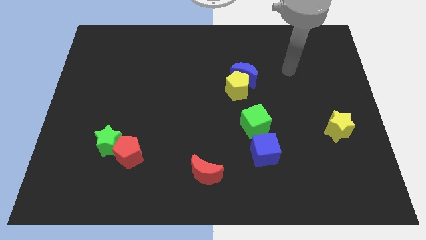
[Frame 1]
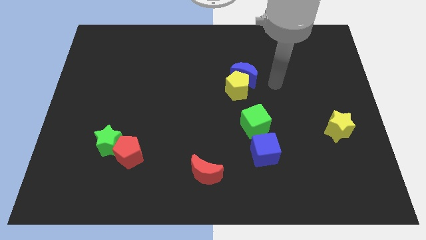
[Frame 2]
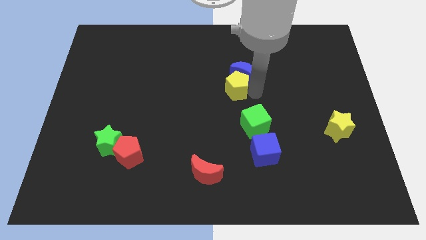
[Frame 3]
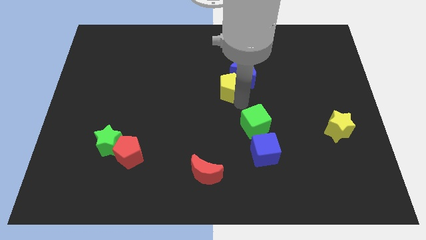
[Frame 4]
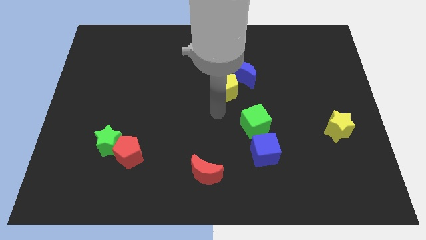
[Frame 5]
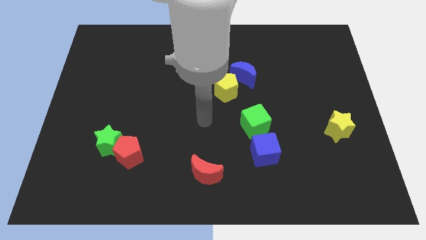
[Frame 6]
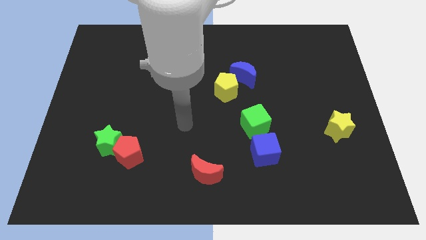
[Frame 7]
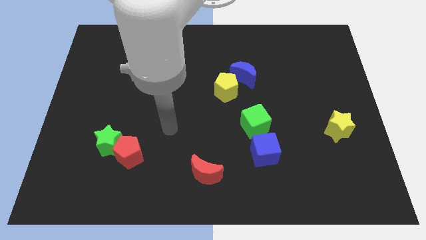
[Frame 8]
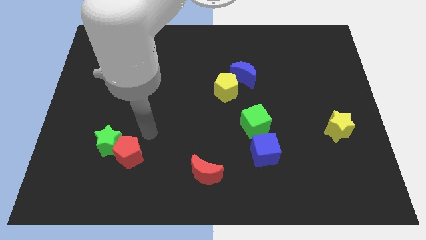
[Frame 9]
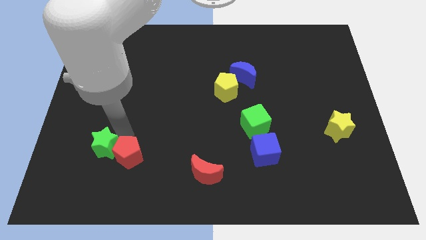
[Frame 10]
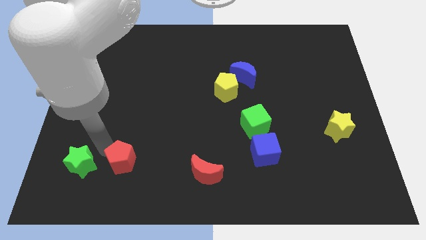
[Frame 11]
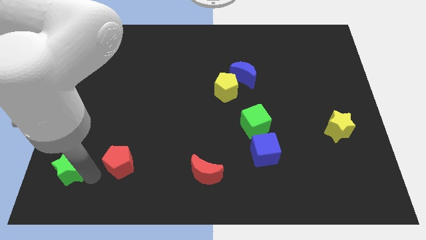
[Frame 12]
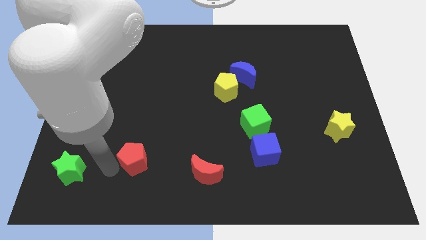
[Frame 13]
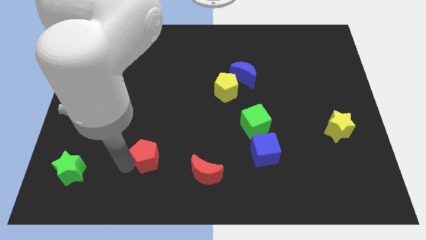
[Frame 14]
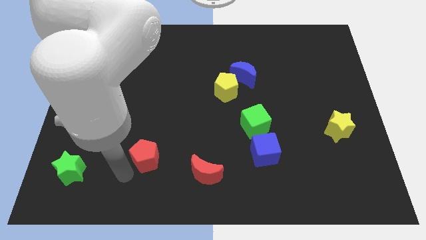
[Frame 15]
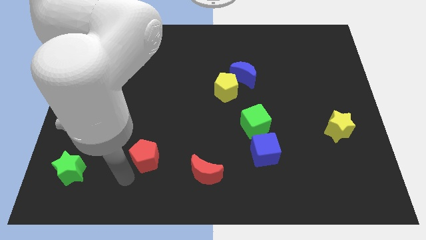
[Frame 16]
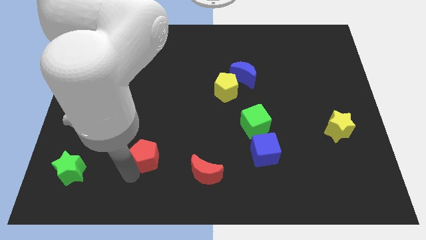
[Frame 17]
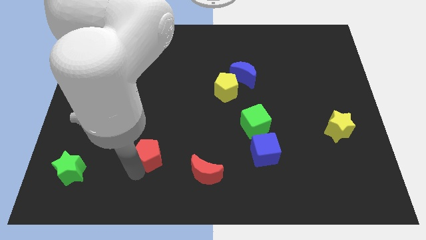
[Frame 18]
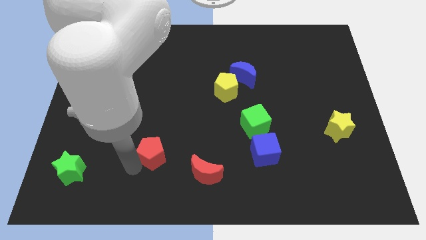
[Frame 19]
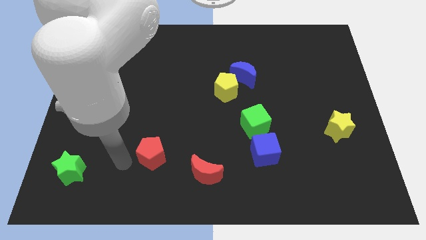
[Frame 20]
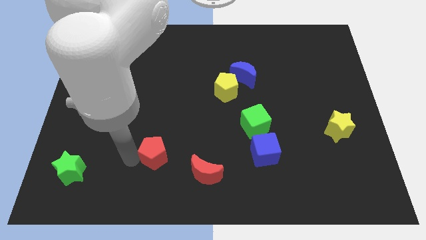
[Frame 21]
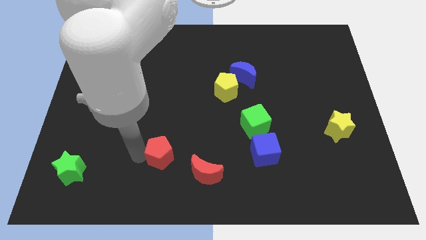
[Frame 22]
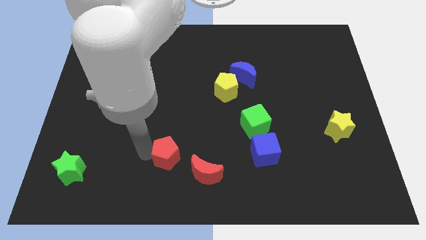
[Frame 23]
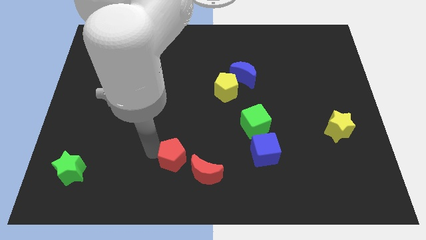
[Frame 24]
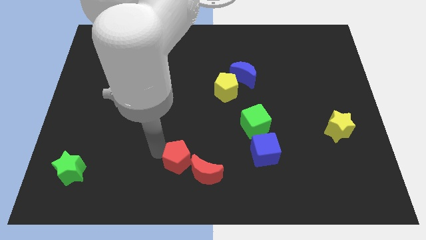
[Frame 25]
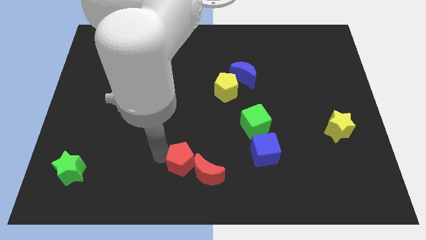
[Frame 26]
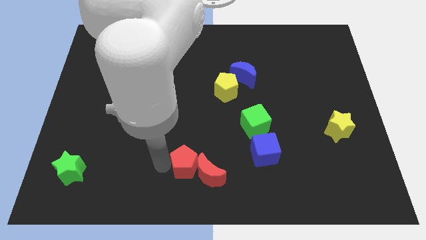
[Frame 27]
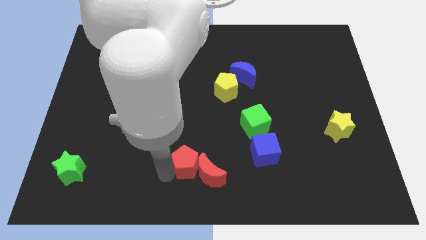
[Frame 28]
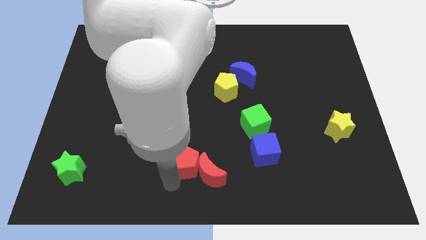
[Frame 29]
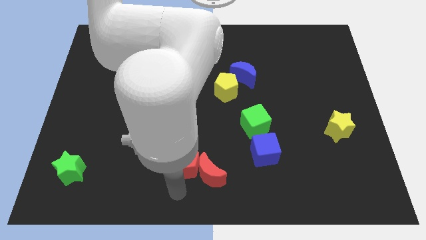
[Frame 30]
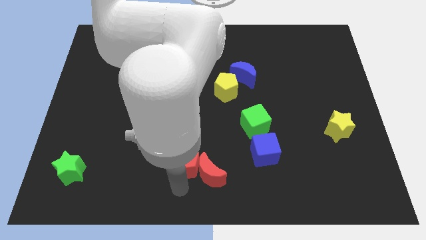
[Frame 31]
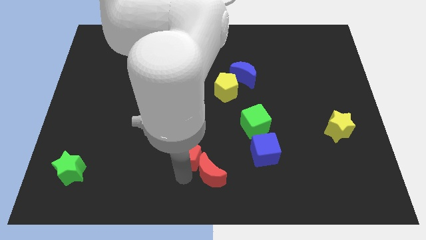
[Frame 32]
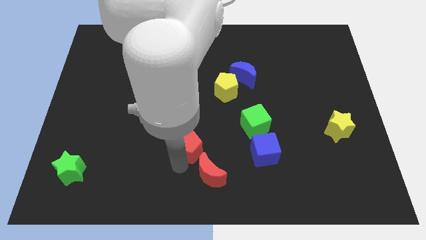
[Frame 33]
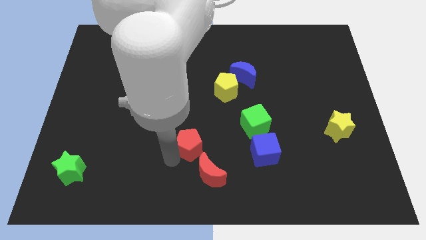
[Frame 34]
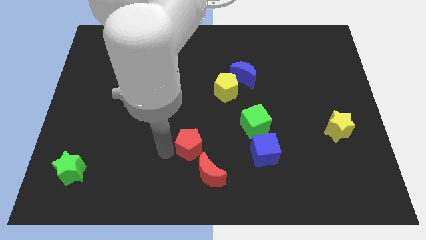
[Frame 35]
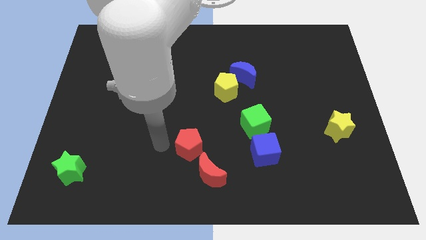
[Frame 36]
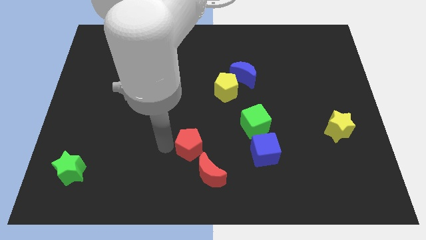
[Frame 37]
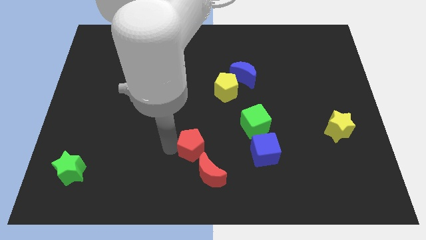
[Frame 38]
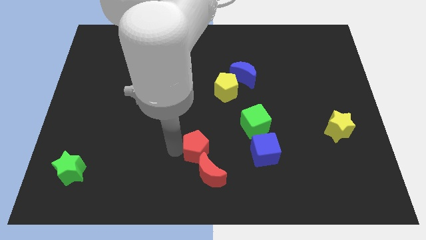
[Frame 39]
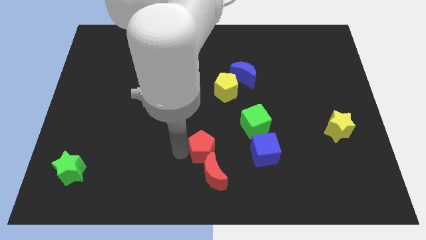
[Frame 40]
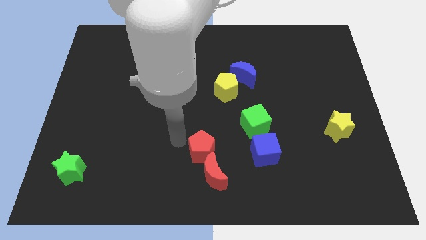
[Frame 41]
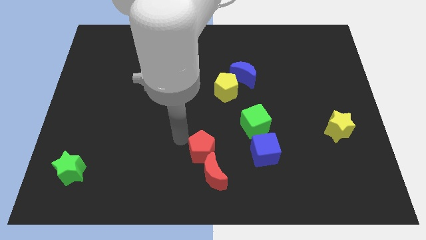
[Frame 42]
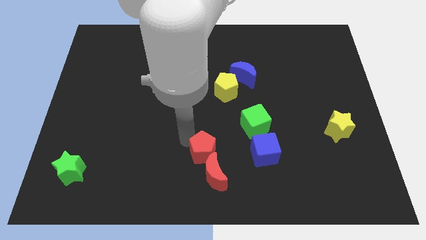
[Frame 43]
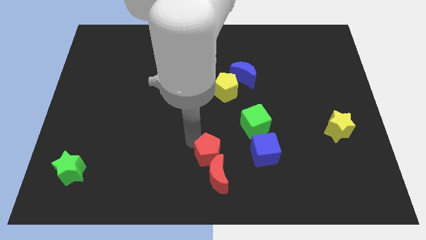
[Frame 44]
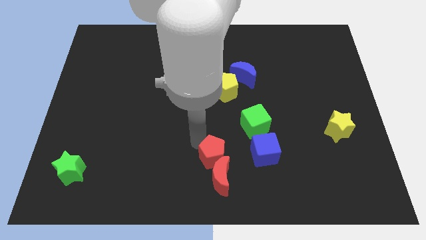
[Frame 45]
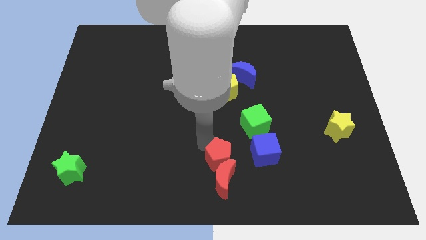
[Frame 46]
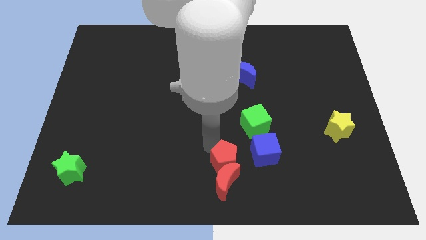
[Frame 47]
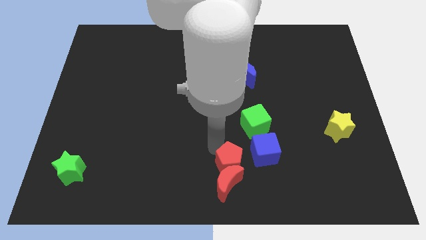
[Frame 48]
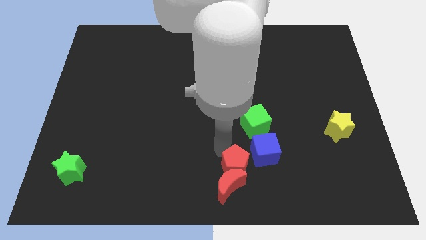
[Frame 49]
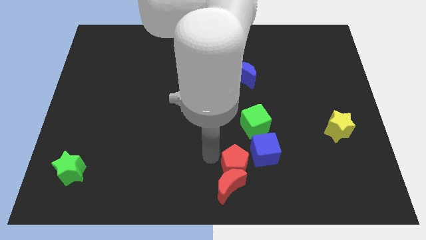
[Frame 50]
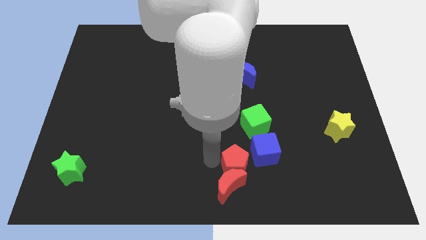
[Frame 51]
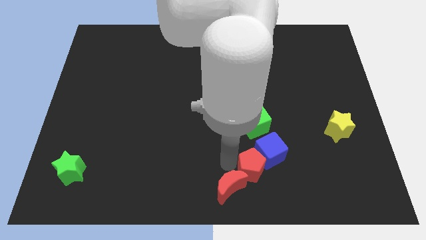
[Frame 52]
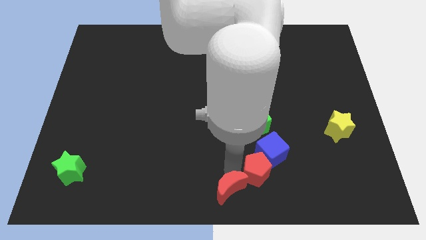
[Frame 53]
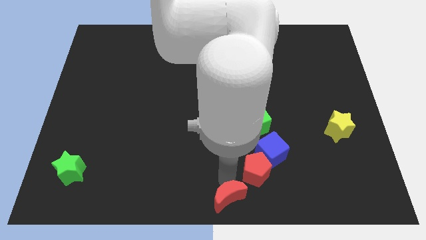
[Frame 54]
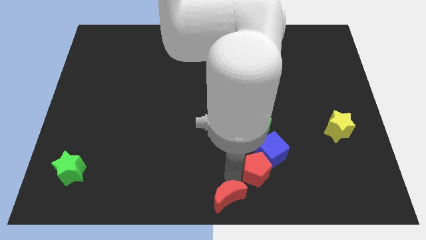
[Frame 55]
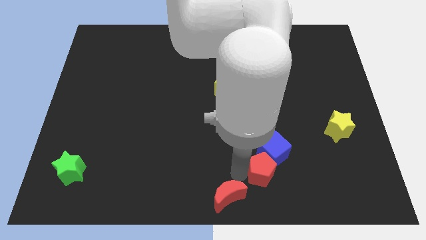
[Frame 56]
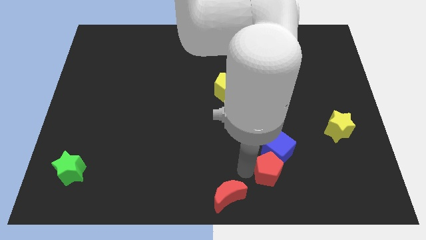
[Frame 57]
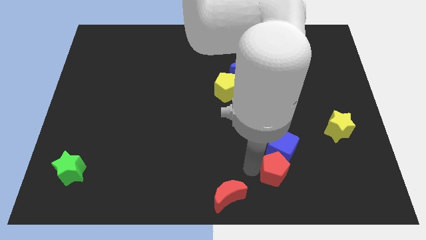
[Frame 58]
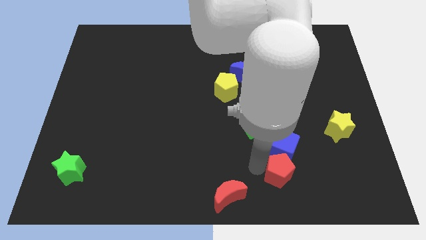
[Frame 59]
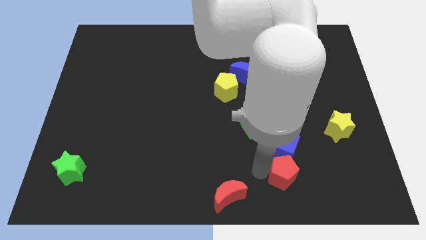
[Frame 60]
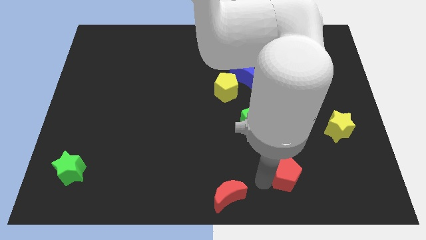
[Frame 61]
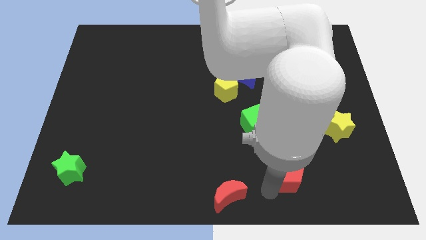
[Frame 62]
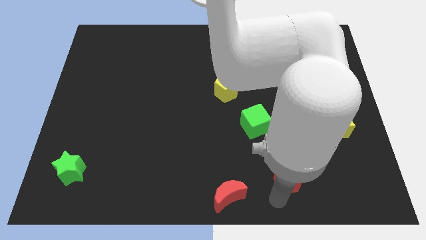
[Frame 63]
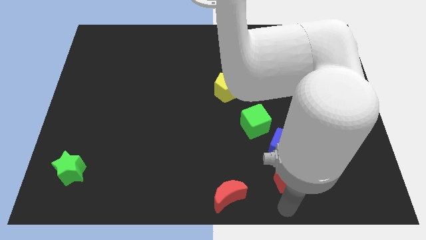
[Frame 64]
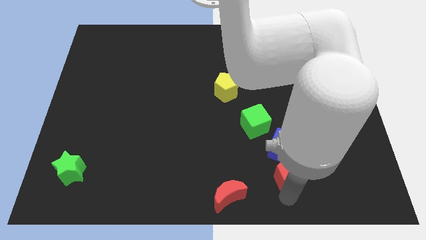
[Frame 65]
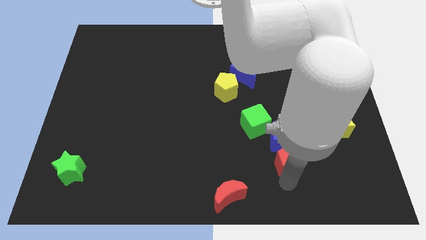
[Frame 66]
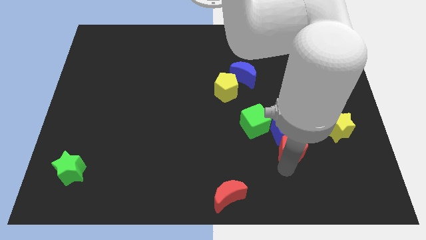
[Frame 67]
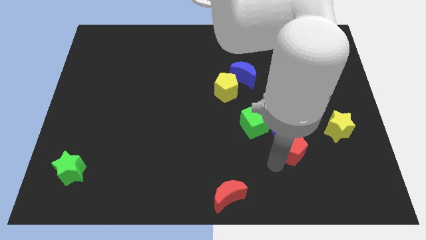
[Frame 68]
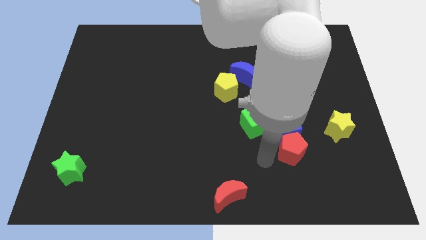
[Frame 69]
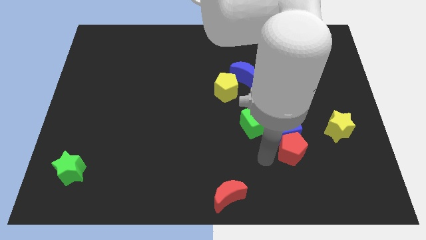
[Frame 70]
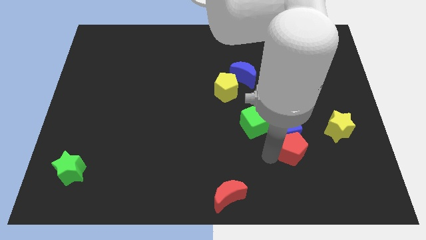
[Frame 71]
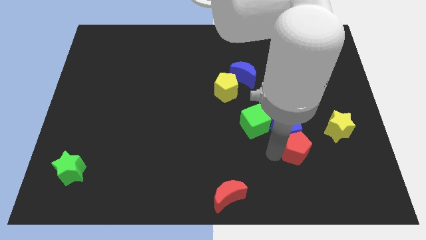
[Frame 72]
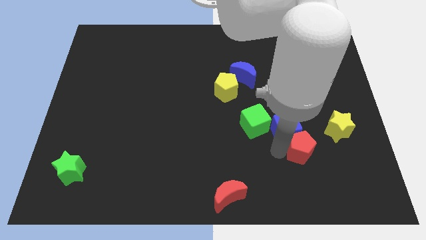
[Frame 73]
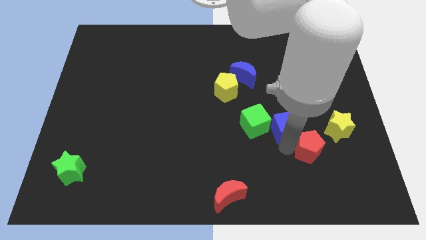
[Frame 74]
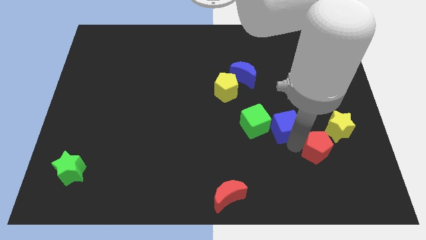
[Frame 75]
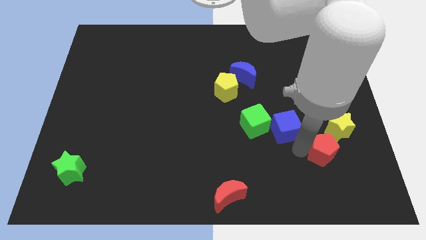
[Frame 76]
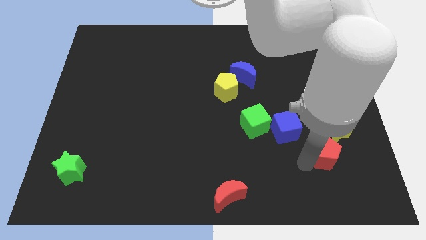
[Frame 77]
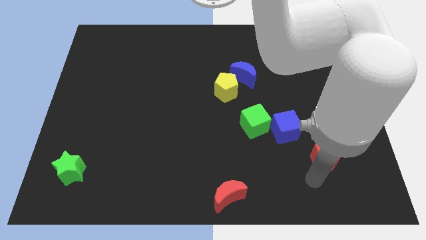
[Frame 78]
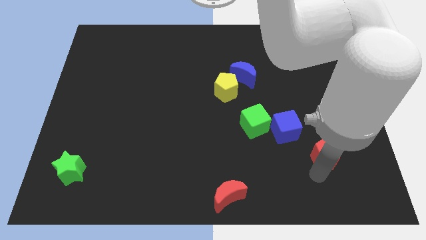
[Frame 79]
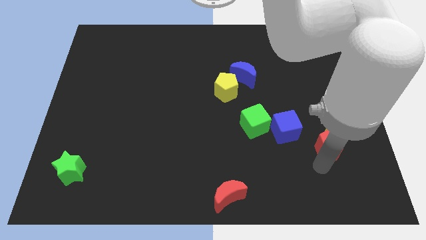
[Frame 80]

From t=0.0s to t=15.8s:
move the red pentagon to the yellow star

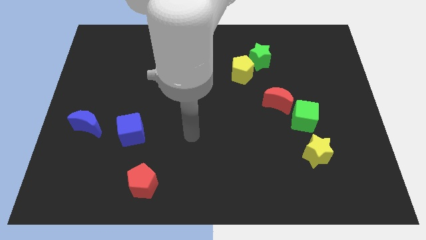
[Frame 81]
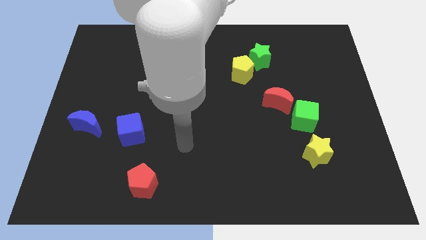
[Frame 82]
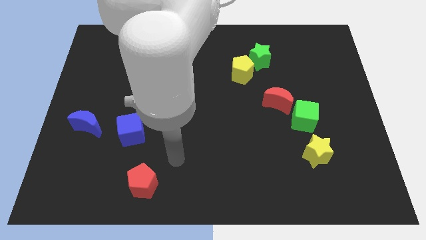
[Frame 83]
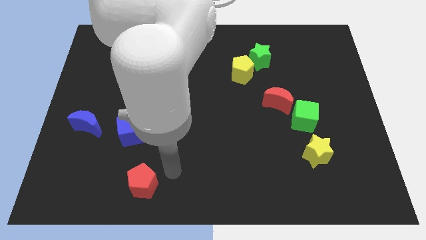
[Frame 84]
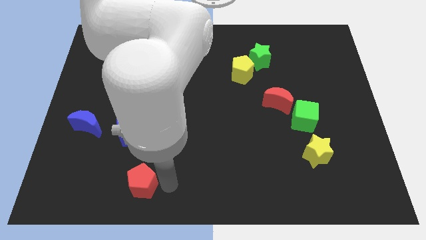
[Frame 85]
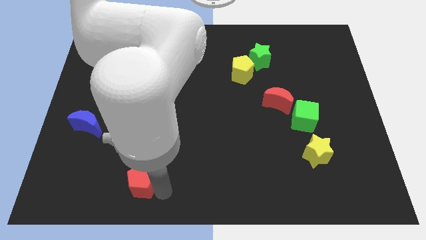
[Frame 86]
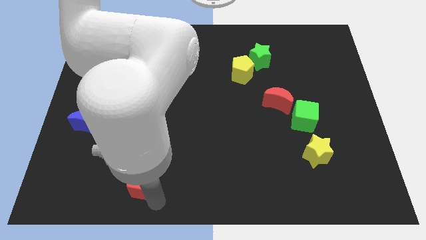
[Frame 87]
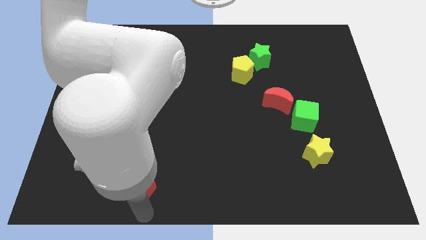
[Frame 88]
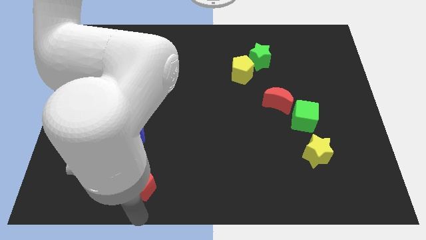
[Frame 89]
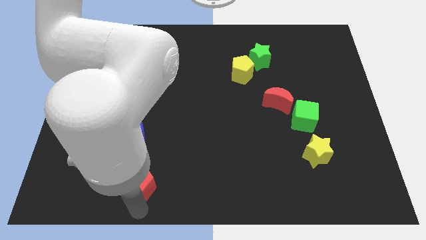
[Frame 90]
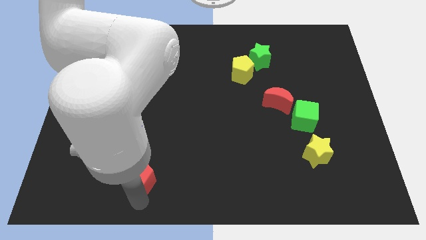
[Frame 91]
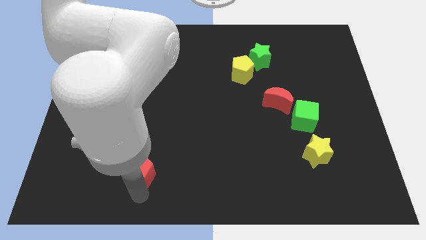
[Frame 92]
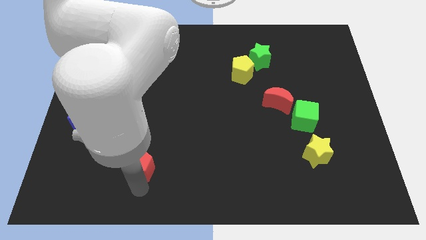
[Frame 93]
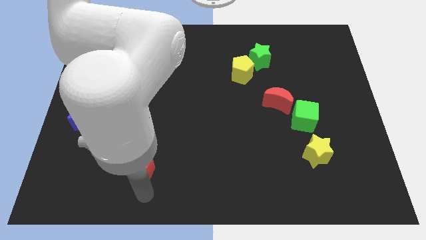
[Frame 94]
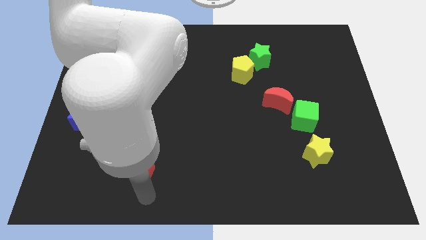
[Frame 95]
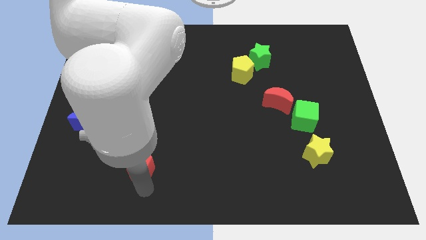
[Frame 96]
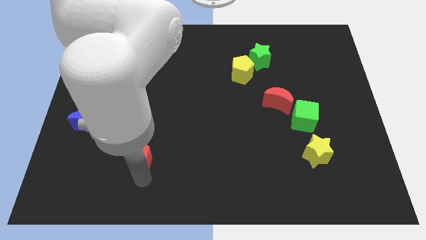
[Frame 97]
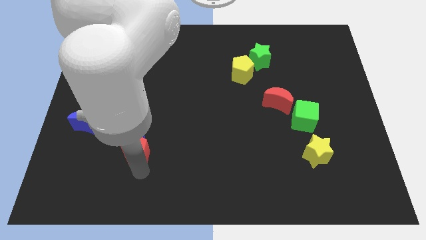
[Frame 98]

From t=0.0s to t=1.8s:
put the red pentagon towards the blue cube
